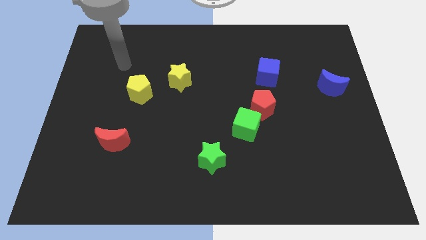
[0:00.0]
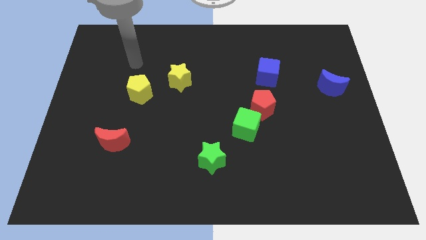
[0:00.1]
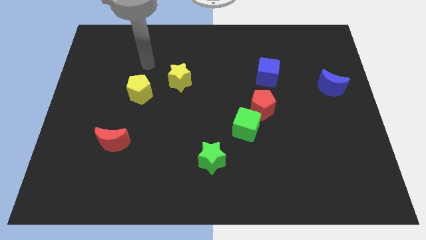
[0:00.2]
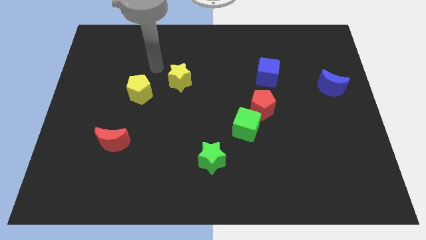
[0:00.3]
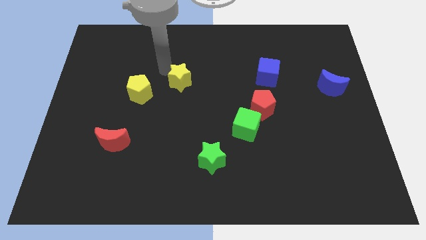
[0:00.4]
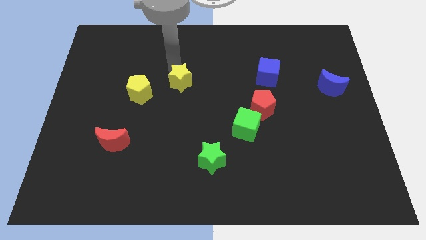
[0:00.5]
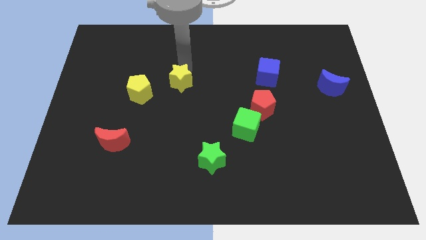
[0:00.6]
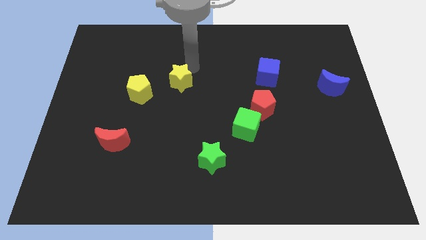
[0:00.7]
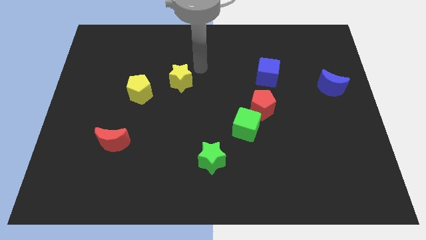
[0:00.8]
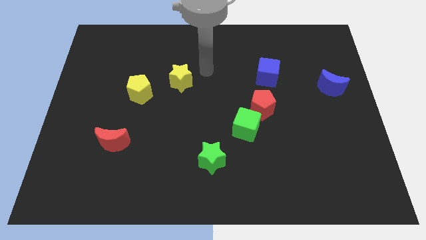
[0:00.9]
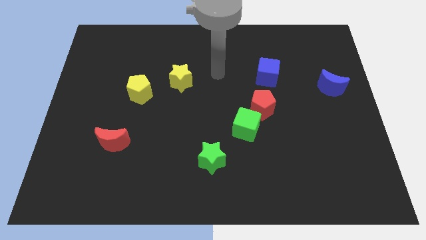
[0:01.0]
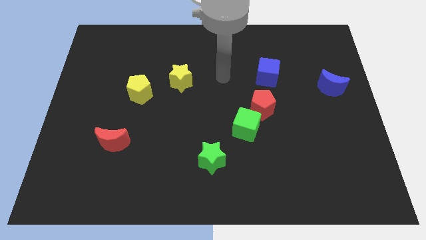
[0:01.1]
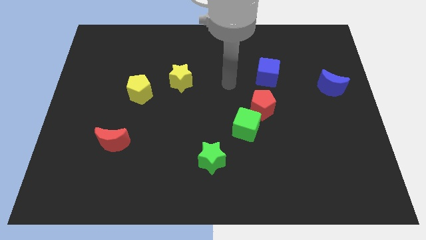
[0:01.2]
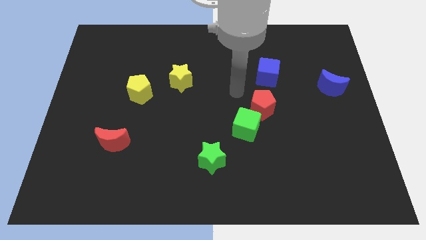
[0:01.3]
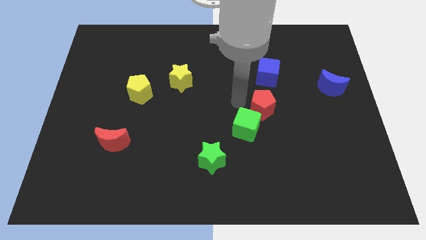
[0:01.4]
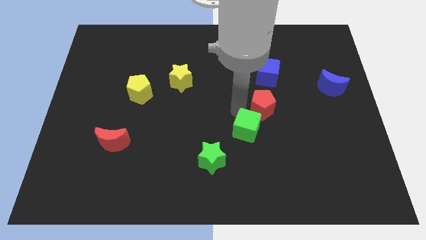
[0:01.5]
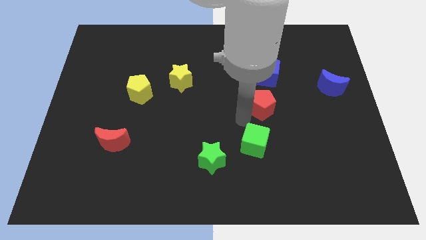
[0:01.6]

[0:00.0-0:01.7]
separate the red pentagon from the green cube

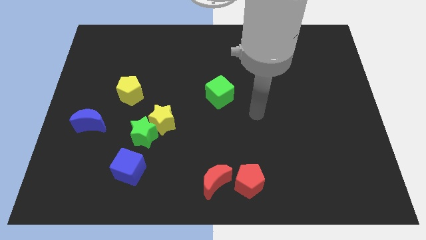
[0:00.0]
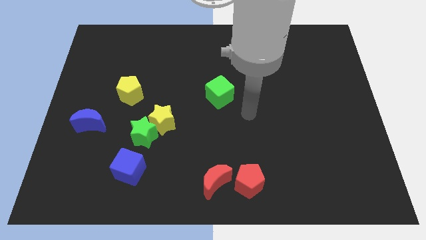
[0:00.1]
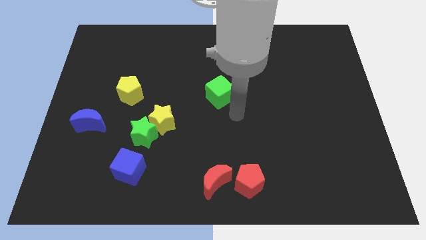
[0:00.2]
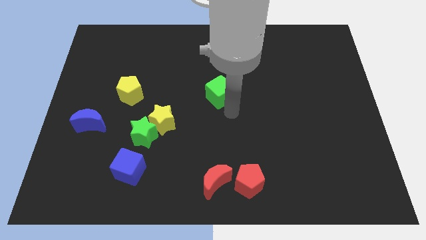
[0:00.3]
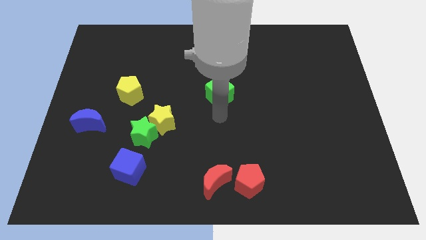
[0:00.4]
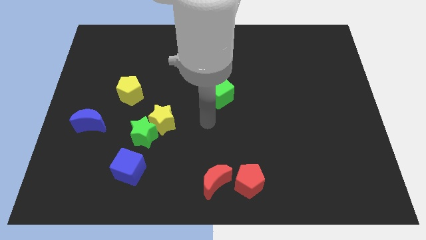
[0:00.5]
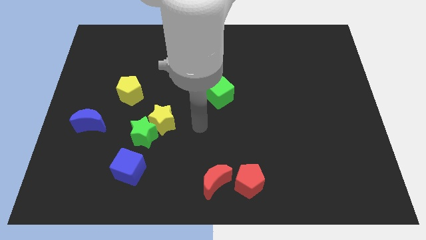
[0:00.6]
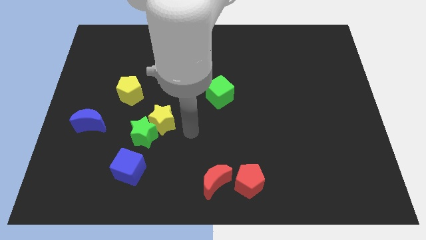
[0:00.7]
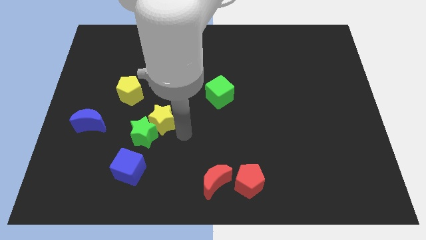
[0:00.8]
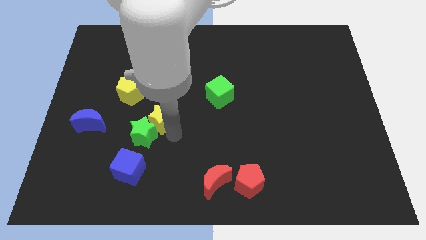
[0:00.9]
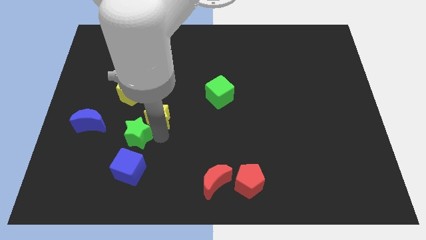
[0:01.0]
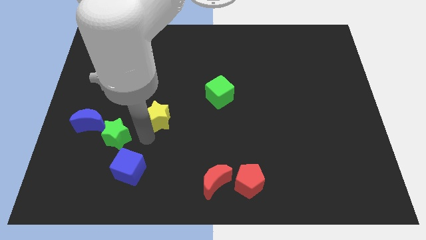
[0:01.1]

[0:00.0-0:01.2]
separate the yellow star from the green star

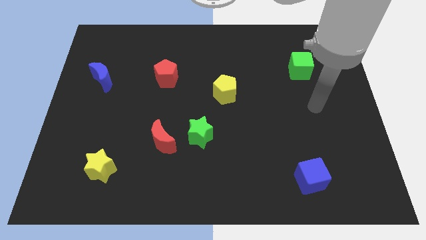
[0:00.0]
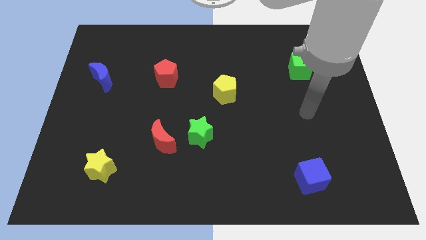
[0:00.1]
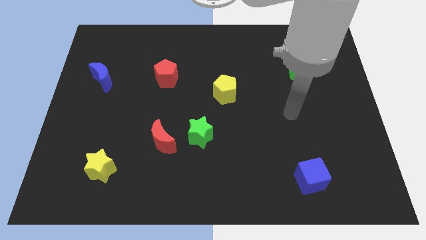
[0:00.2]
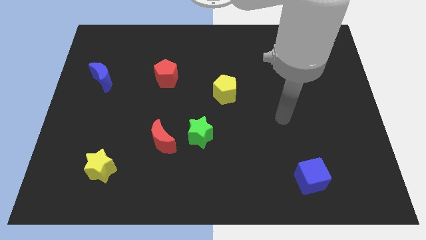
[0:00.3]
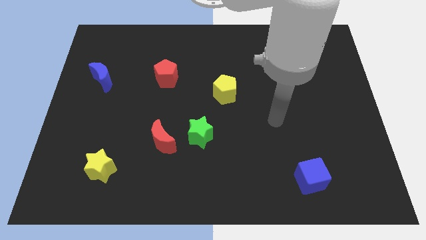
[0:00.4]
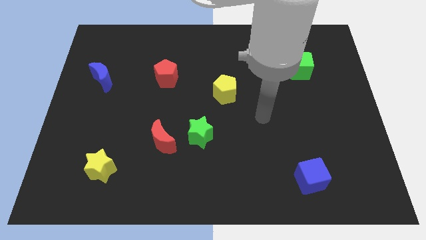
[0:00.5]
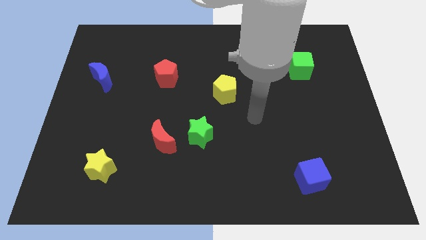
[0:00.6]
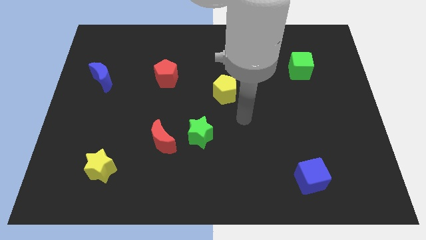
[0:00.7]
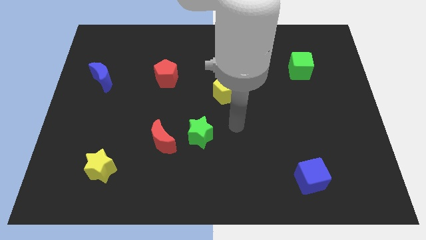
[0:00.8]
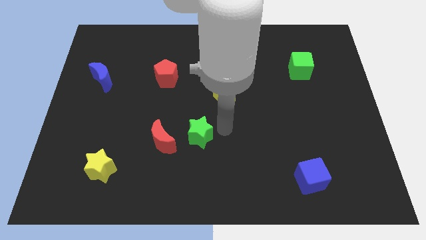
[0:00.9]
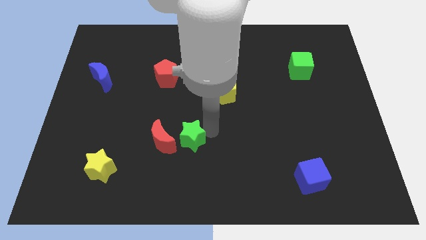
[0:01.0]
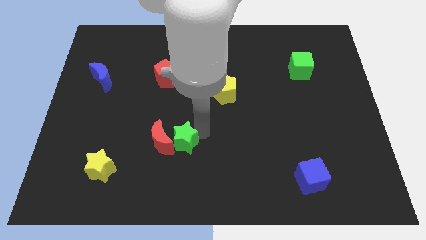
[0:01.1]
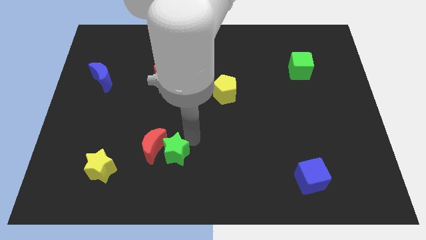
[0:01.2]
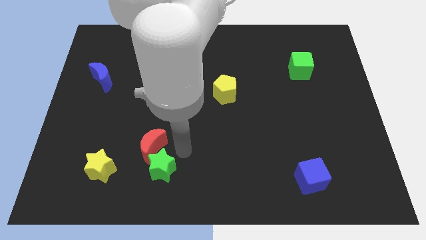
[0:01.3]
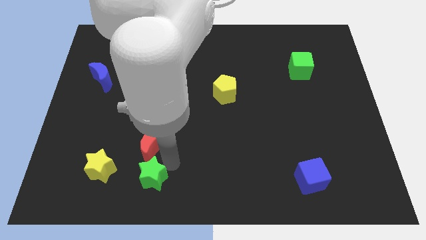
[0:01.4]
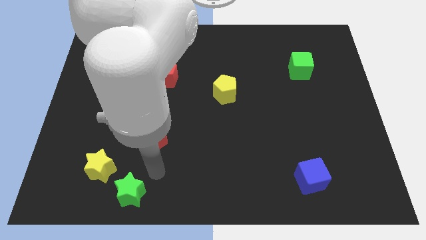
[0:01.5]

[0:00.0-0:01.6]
pull the red moon apart from the green star

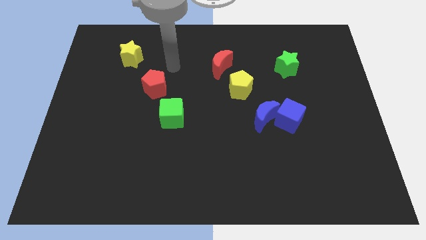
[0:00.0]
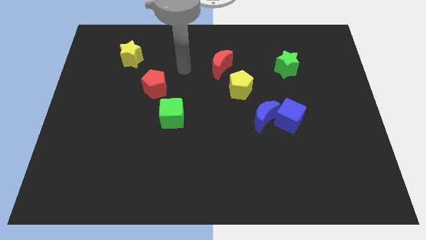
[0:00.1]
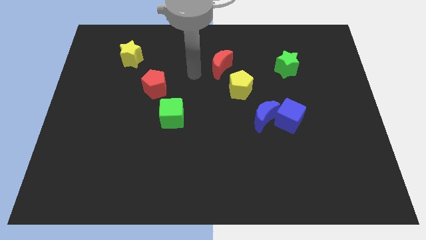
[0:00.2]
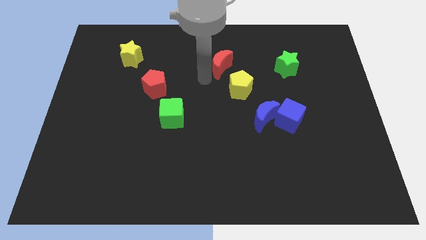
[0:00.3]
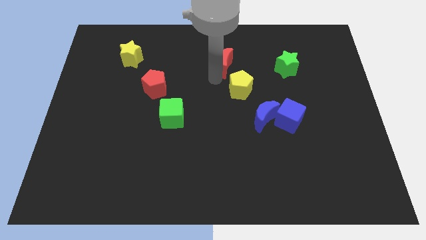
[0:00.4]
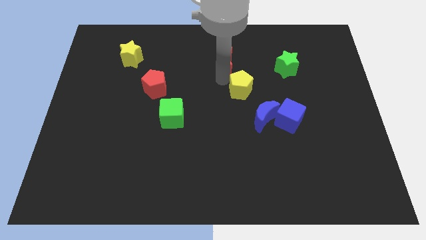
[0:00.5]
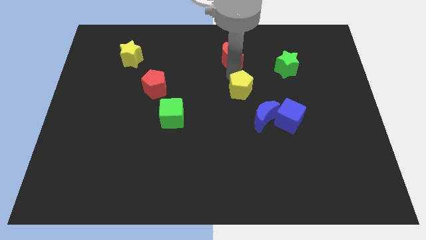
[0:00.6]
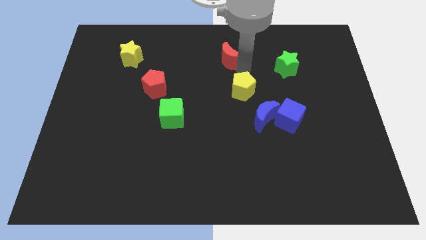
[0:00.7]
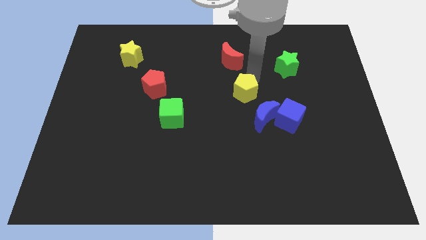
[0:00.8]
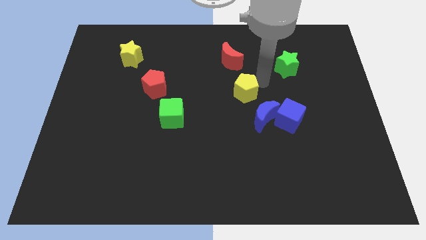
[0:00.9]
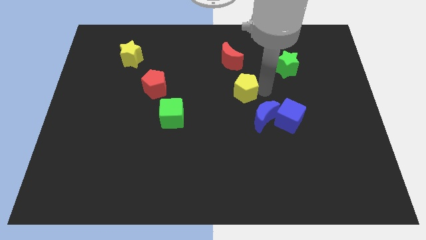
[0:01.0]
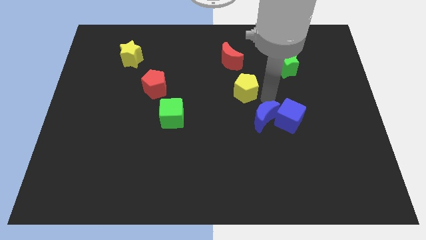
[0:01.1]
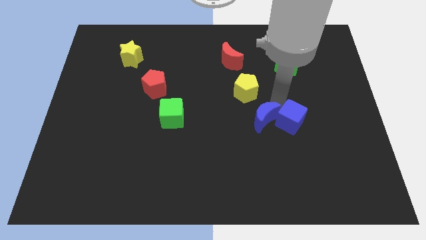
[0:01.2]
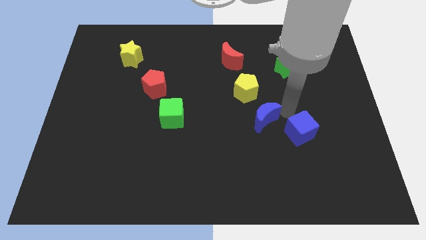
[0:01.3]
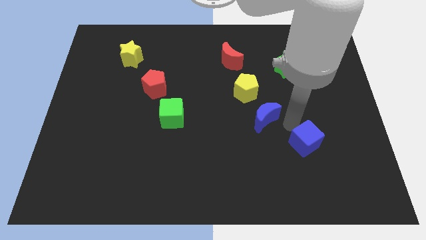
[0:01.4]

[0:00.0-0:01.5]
pull the blue moon apart from the blue cube

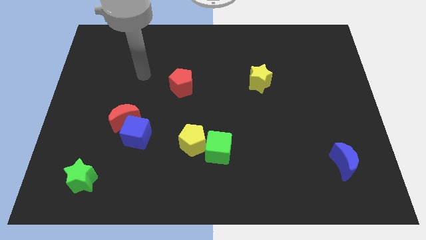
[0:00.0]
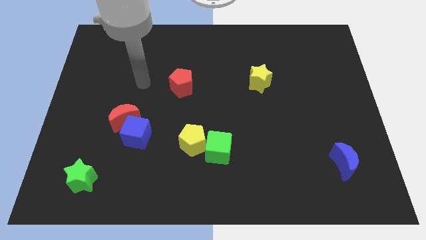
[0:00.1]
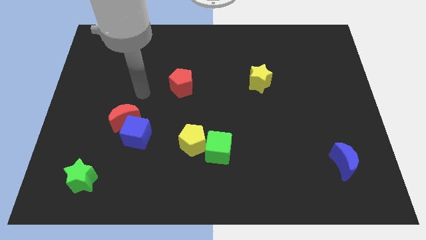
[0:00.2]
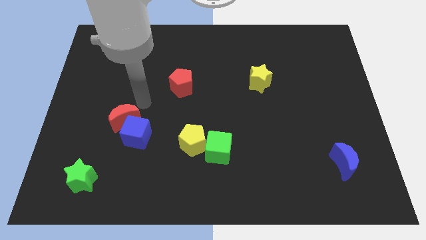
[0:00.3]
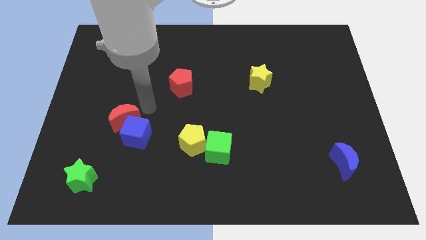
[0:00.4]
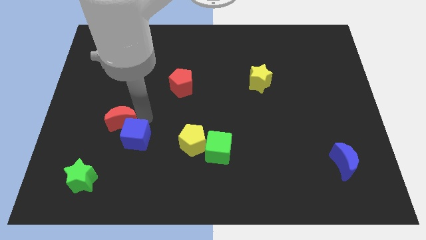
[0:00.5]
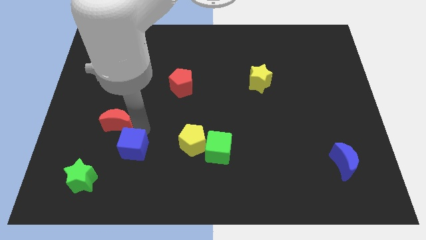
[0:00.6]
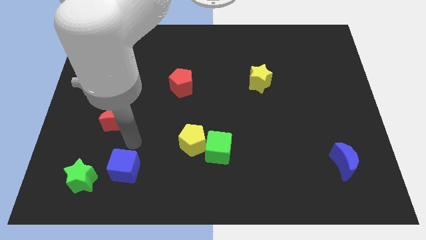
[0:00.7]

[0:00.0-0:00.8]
separate the red moon from the blue cube

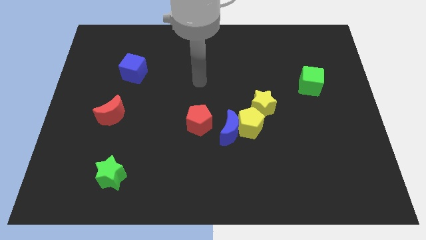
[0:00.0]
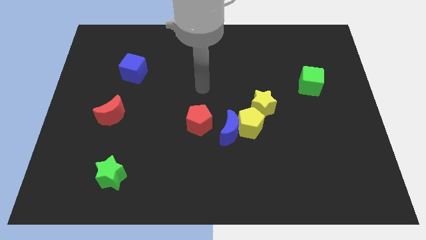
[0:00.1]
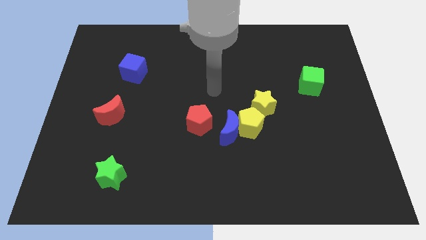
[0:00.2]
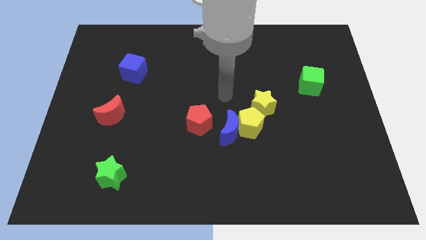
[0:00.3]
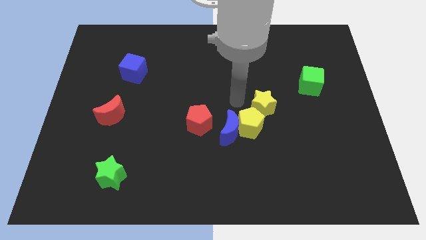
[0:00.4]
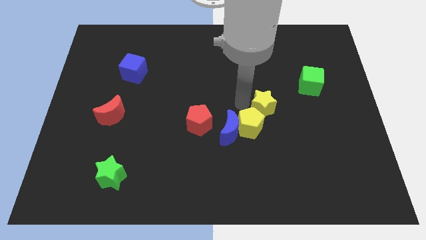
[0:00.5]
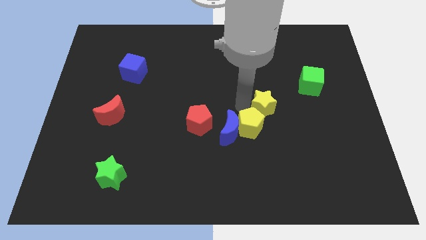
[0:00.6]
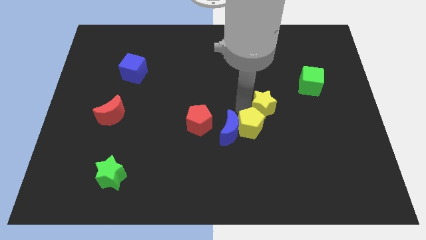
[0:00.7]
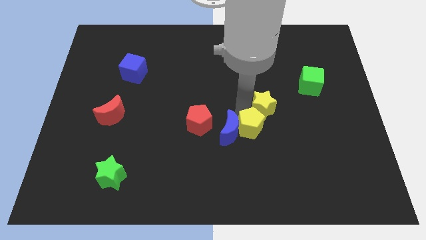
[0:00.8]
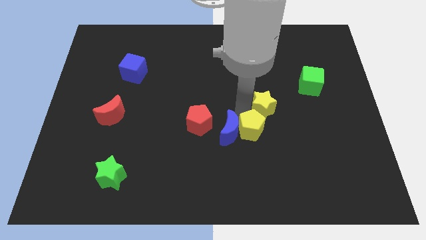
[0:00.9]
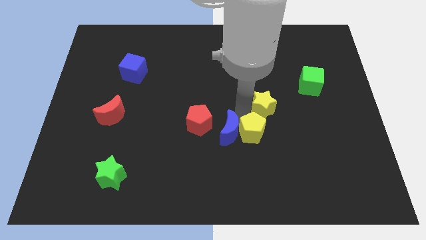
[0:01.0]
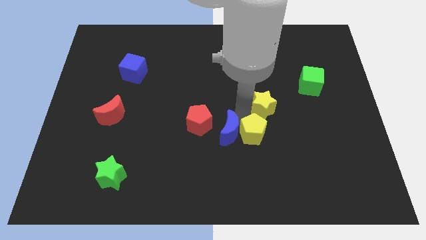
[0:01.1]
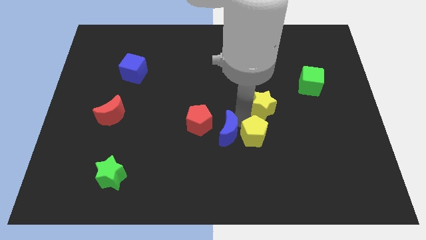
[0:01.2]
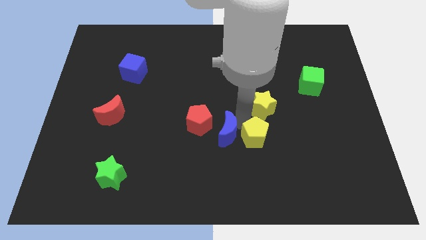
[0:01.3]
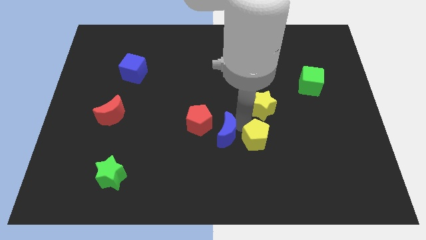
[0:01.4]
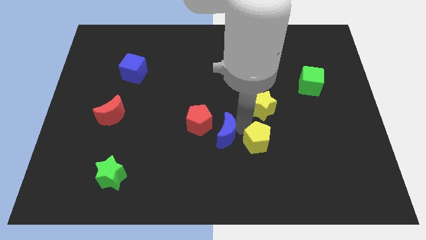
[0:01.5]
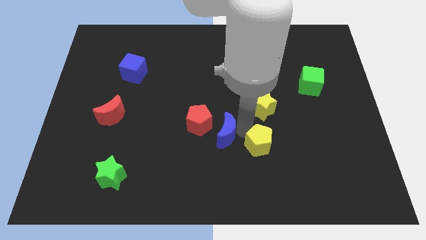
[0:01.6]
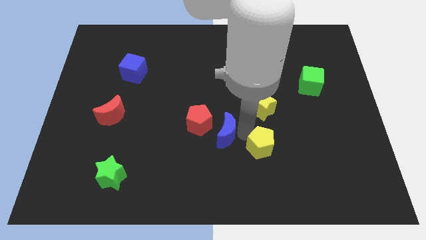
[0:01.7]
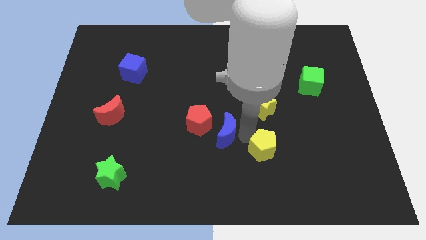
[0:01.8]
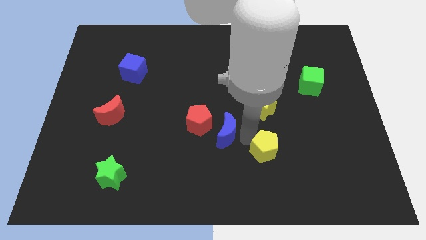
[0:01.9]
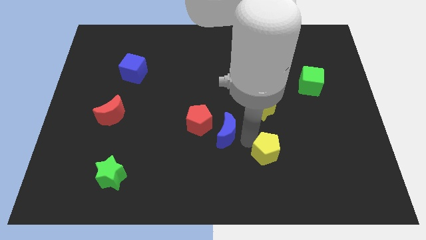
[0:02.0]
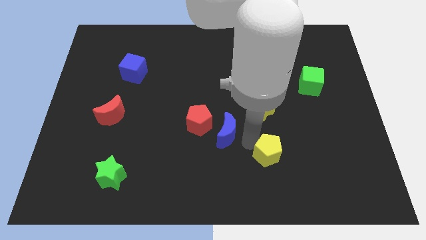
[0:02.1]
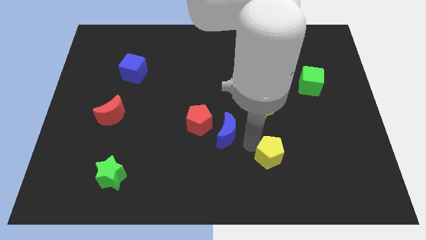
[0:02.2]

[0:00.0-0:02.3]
separate the yellow pentagon from the blue moon and yellow star

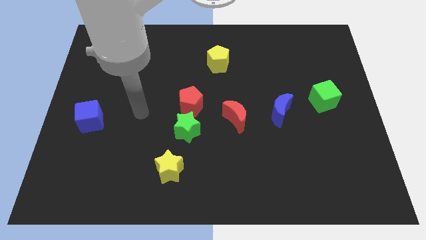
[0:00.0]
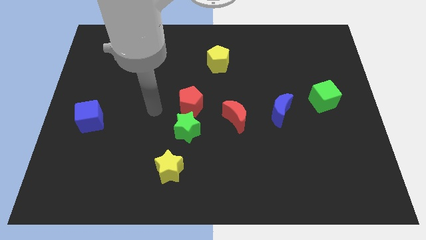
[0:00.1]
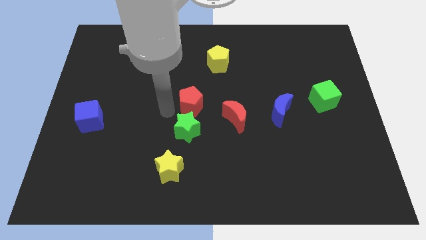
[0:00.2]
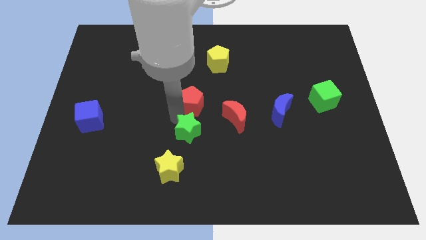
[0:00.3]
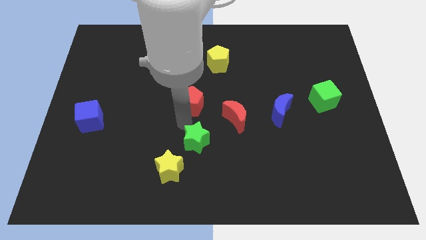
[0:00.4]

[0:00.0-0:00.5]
move the red pentagon away from the green star
